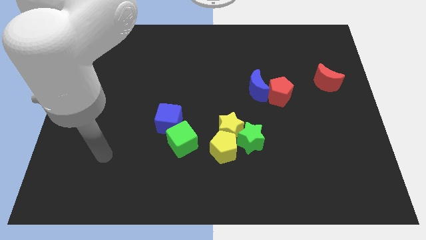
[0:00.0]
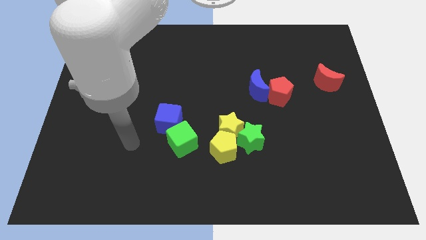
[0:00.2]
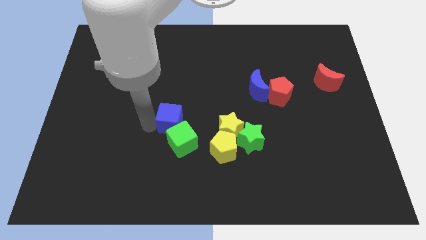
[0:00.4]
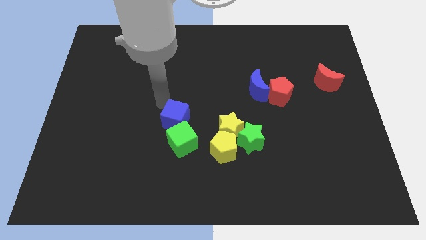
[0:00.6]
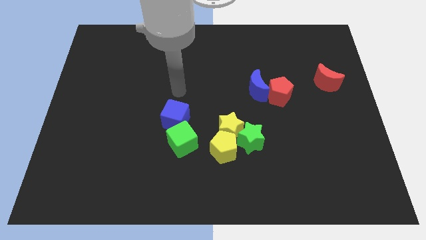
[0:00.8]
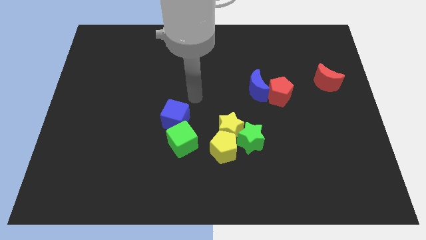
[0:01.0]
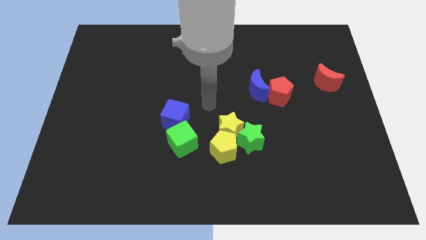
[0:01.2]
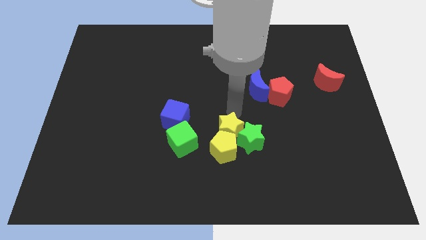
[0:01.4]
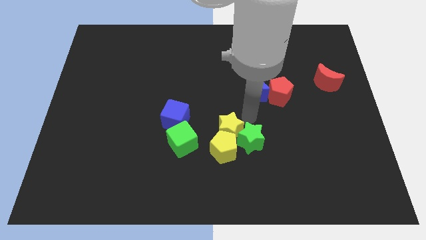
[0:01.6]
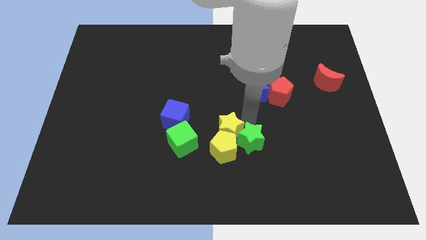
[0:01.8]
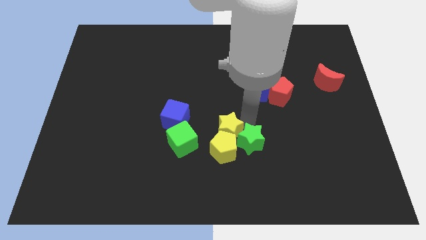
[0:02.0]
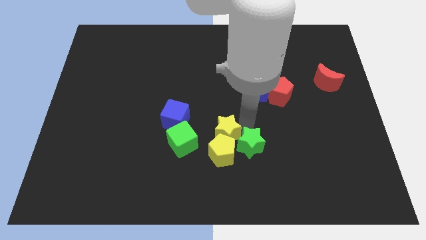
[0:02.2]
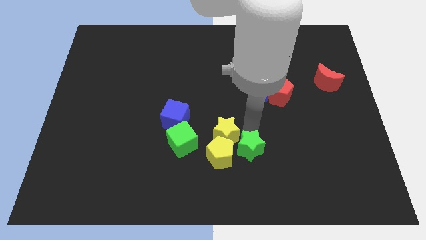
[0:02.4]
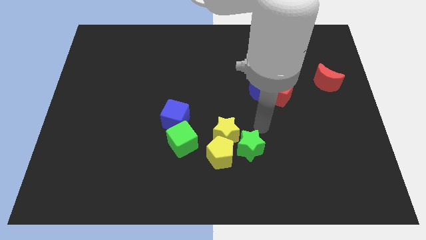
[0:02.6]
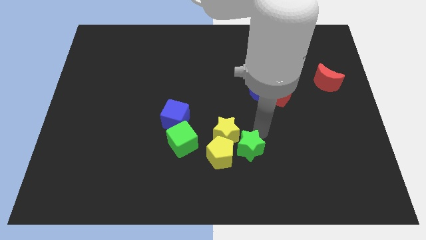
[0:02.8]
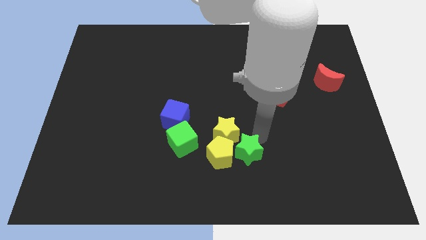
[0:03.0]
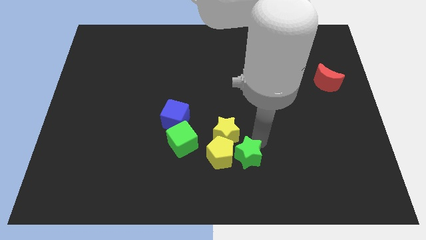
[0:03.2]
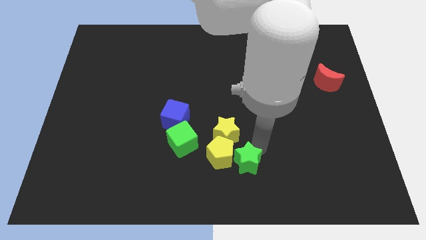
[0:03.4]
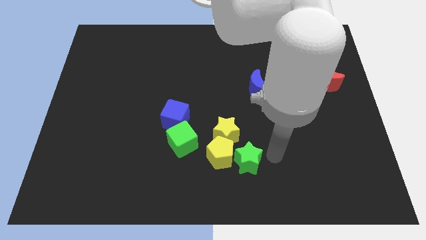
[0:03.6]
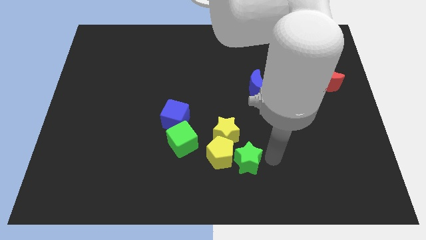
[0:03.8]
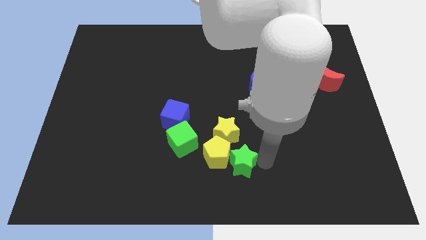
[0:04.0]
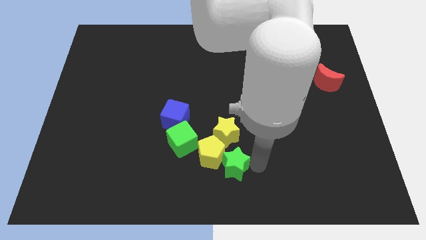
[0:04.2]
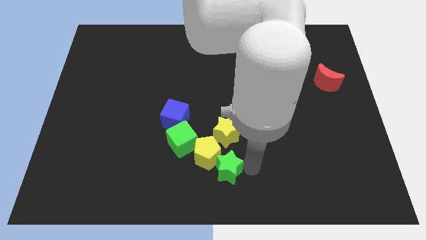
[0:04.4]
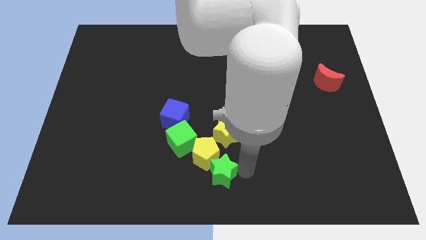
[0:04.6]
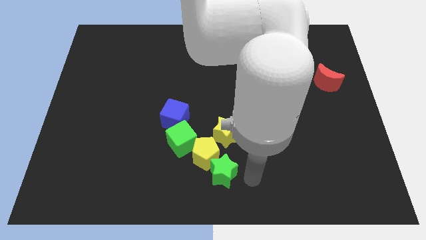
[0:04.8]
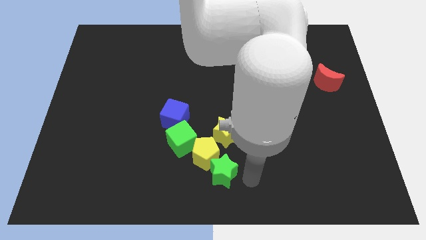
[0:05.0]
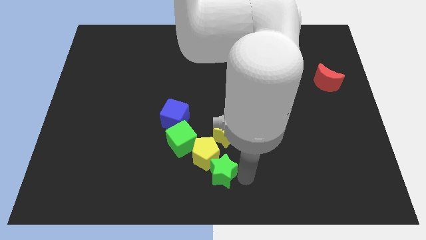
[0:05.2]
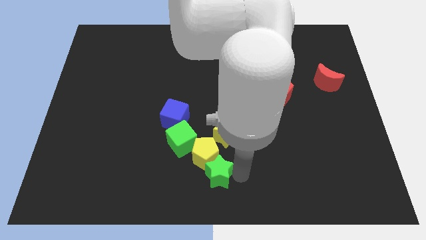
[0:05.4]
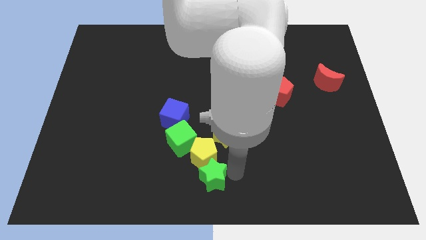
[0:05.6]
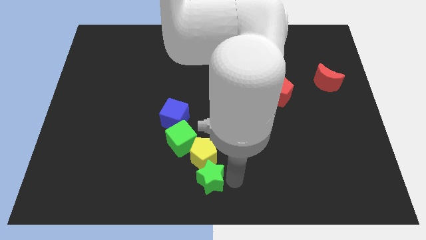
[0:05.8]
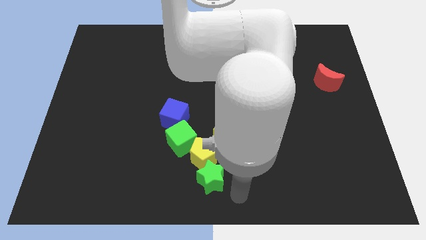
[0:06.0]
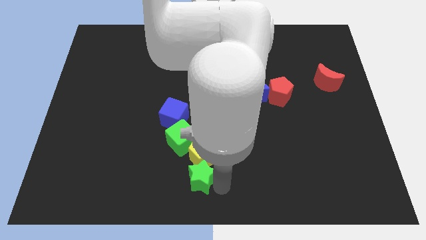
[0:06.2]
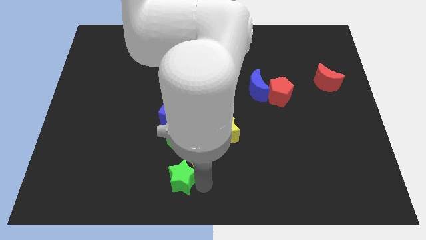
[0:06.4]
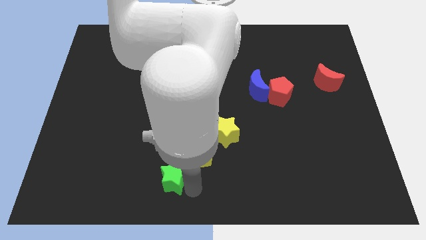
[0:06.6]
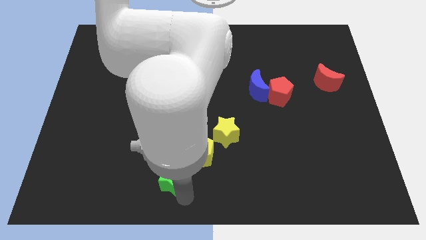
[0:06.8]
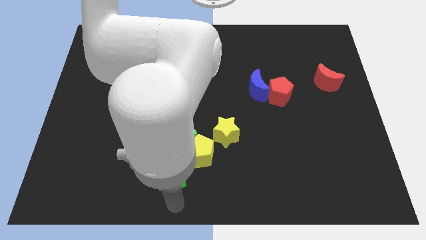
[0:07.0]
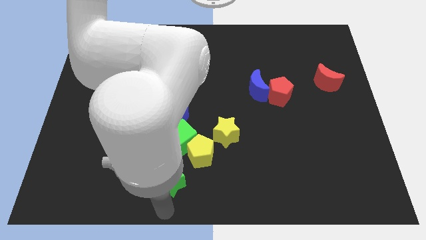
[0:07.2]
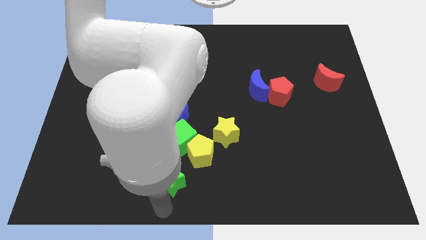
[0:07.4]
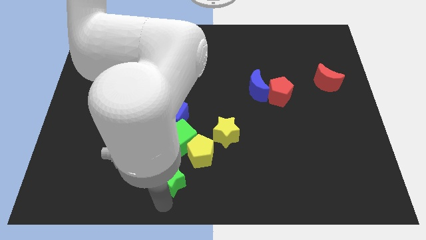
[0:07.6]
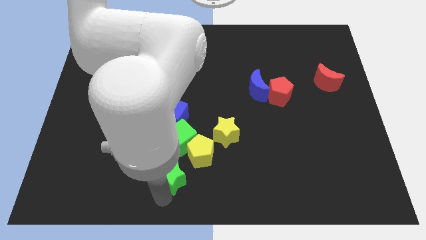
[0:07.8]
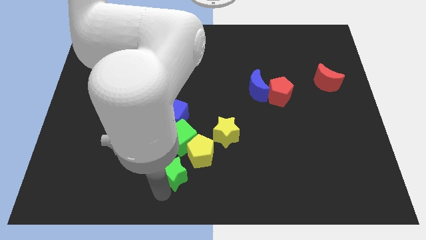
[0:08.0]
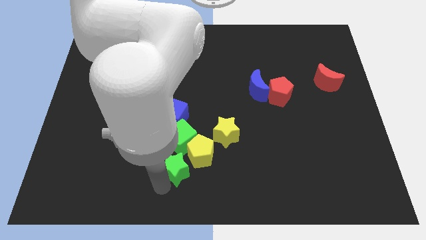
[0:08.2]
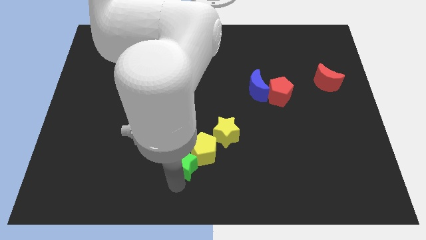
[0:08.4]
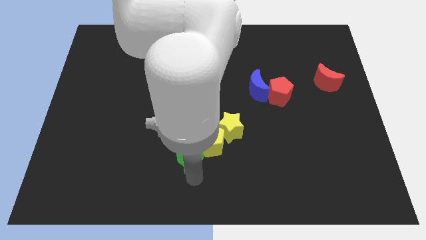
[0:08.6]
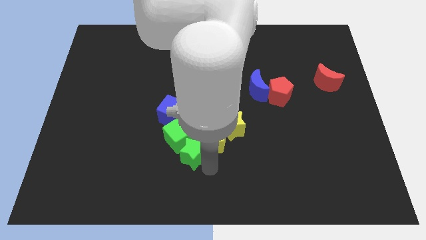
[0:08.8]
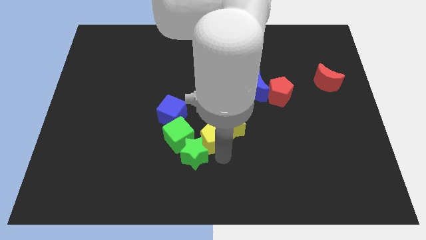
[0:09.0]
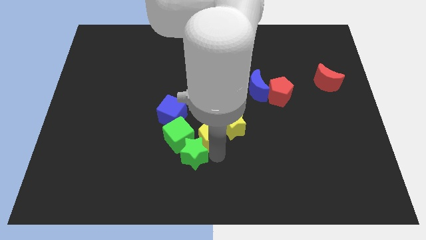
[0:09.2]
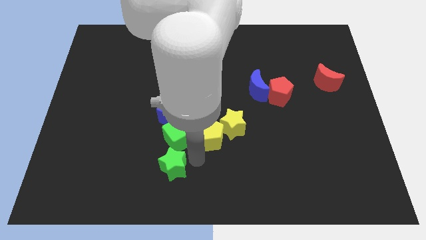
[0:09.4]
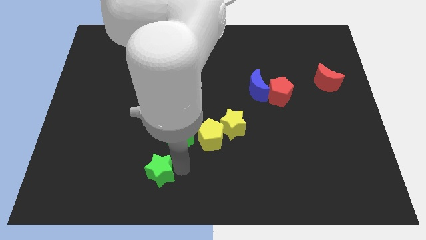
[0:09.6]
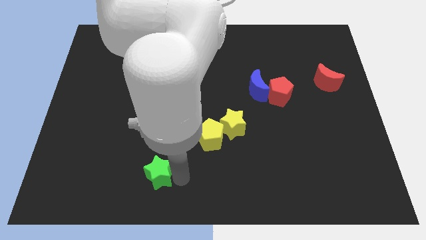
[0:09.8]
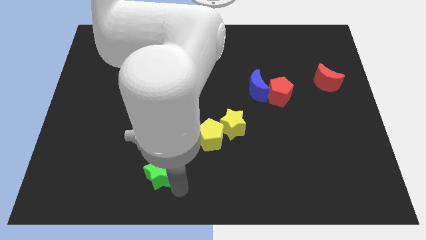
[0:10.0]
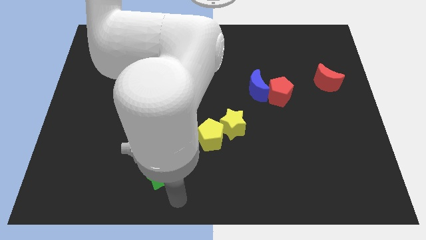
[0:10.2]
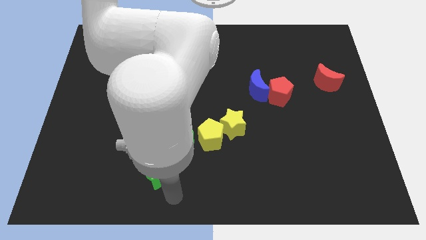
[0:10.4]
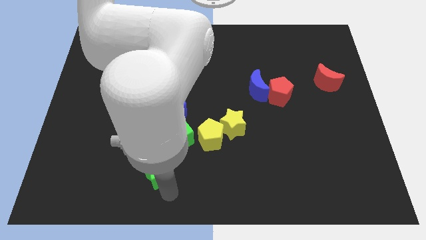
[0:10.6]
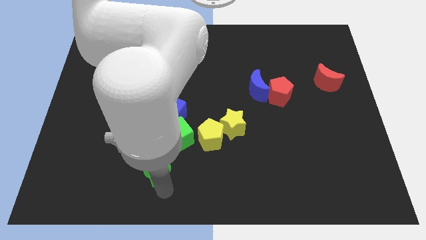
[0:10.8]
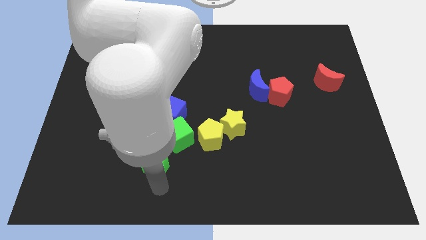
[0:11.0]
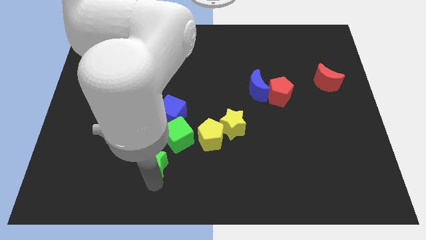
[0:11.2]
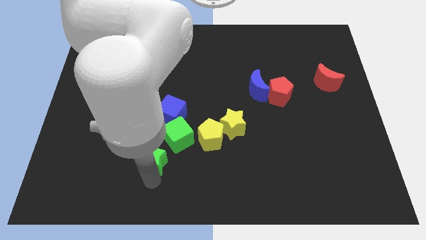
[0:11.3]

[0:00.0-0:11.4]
slide the green star to the left

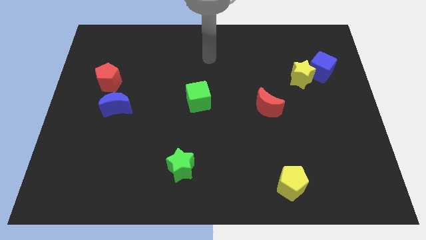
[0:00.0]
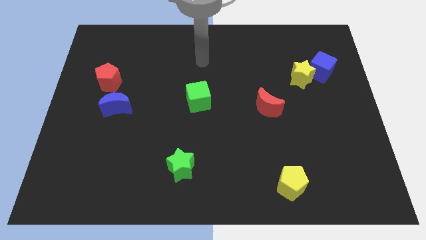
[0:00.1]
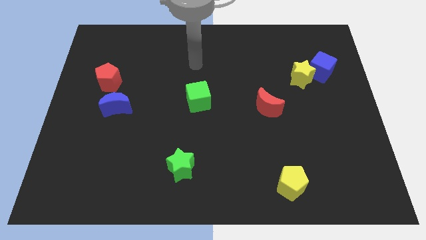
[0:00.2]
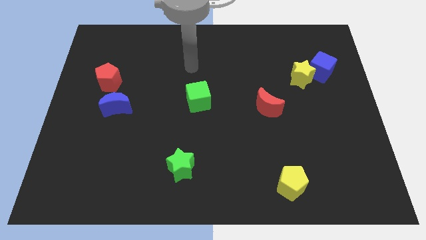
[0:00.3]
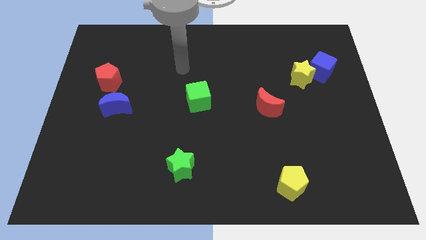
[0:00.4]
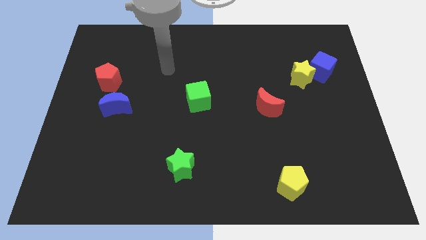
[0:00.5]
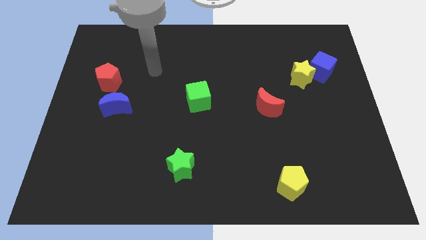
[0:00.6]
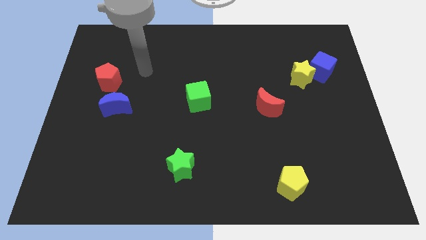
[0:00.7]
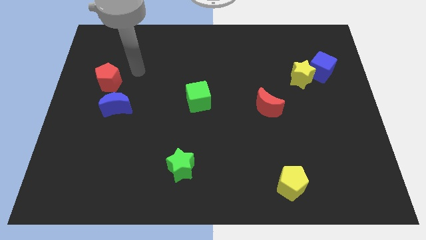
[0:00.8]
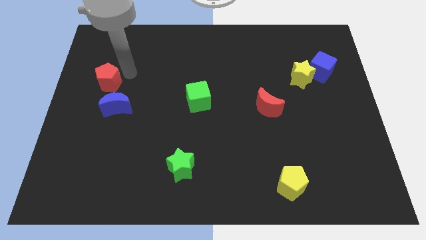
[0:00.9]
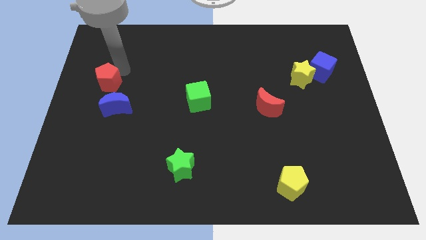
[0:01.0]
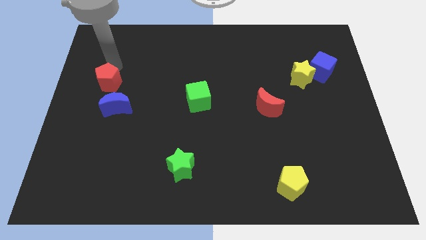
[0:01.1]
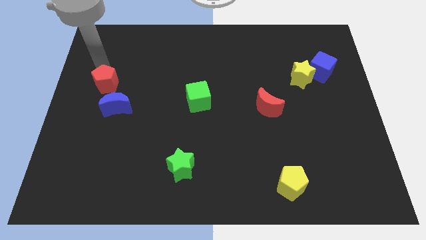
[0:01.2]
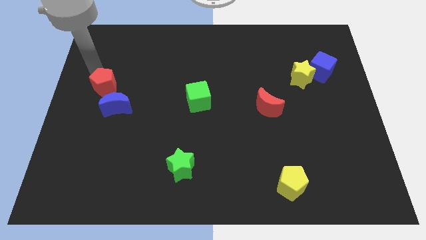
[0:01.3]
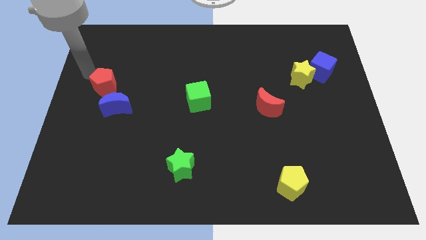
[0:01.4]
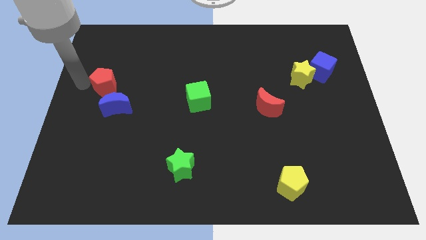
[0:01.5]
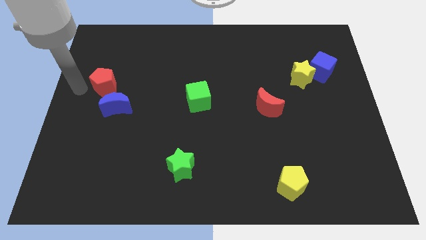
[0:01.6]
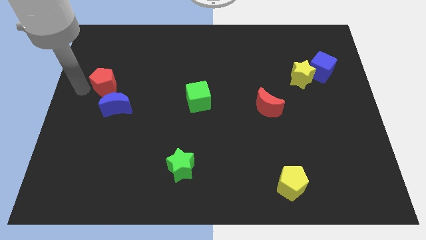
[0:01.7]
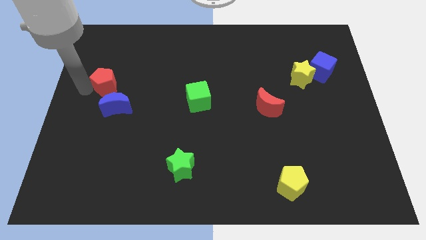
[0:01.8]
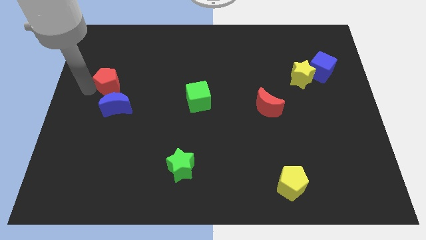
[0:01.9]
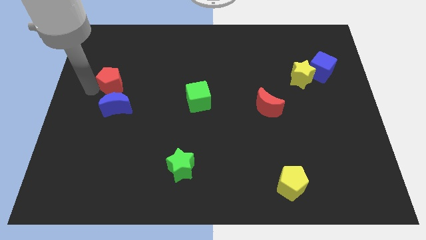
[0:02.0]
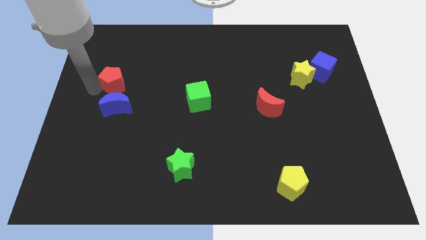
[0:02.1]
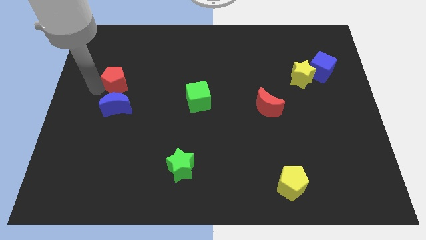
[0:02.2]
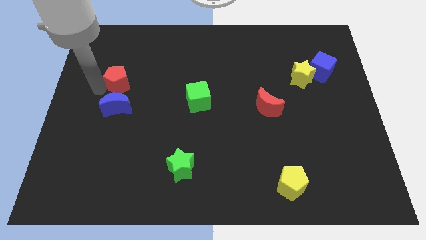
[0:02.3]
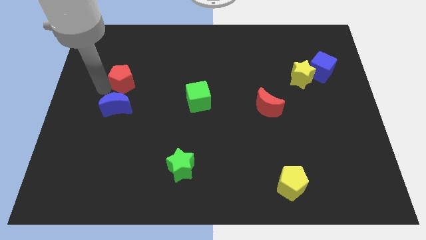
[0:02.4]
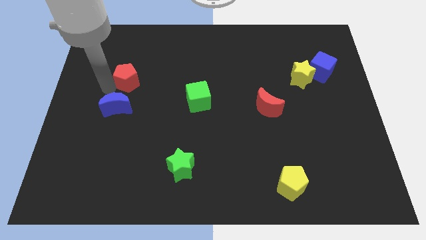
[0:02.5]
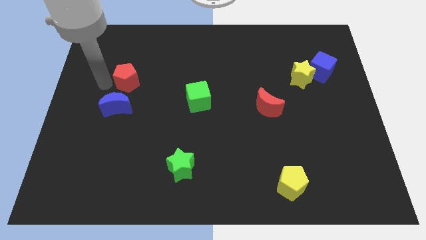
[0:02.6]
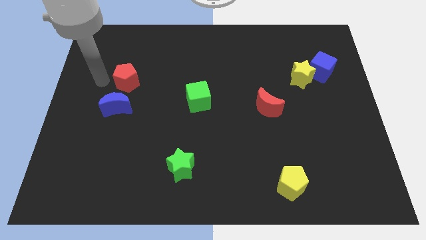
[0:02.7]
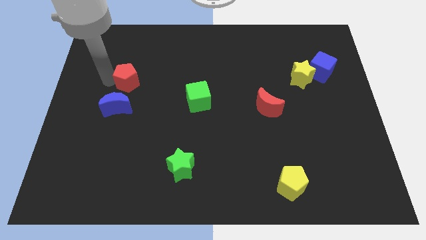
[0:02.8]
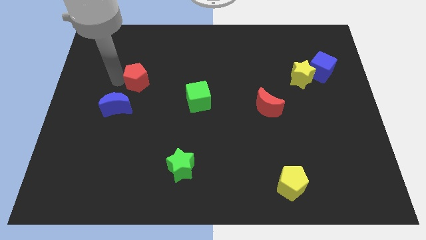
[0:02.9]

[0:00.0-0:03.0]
push the red pentagon to the right a little bit
